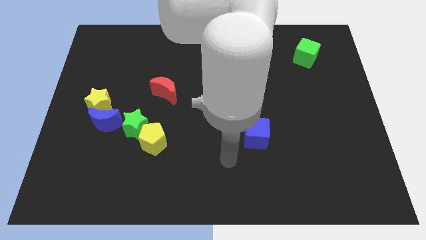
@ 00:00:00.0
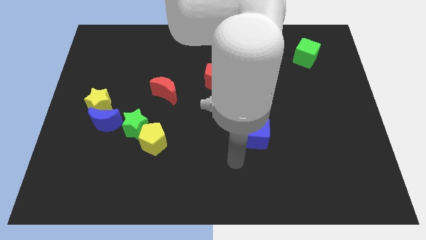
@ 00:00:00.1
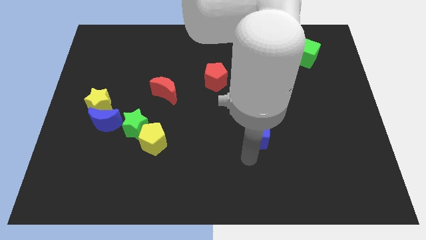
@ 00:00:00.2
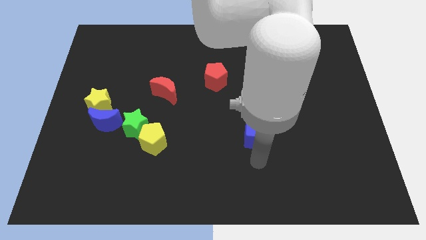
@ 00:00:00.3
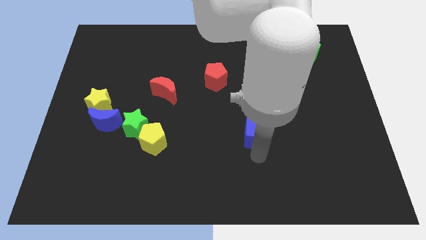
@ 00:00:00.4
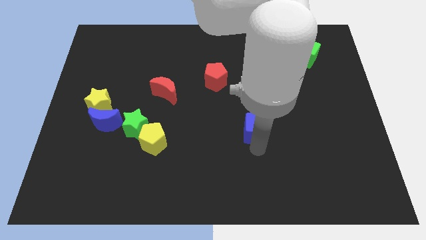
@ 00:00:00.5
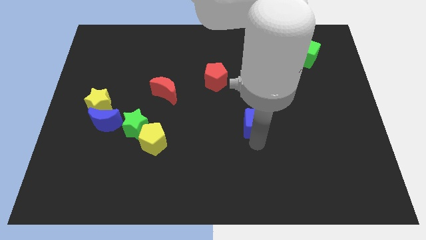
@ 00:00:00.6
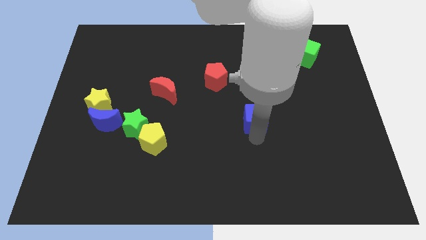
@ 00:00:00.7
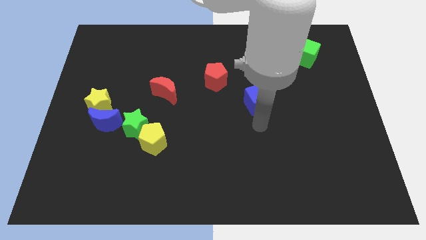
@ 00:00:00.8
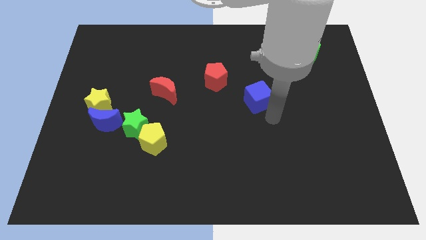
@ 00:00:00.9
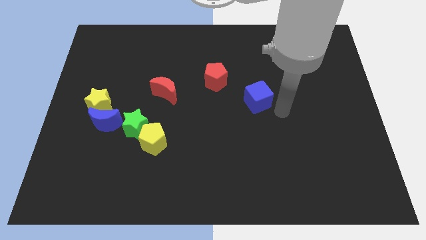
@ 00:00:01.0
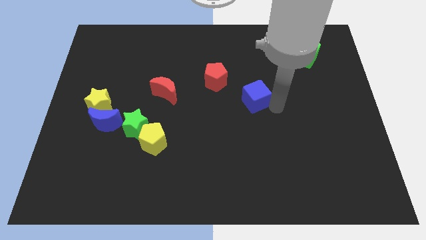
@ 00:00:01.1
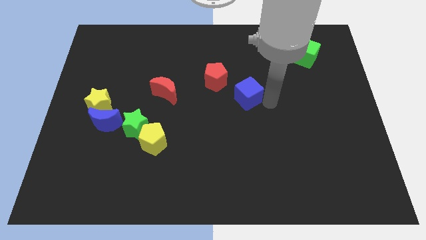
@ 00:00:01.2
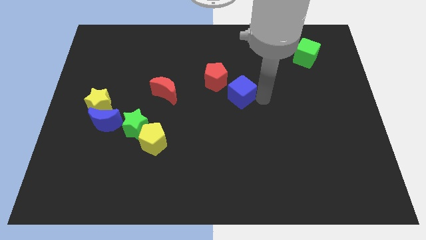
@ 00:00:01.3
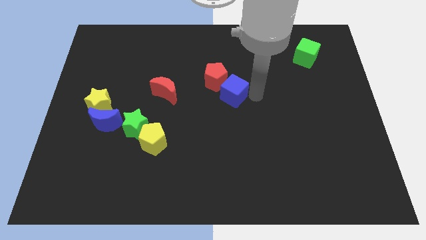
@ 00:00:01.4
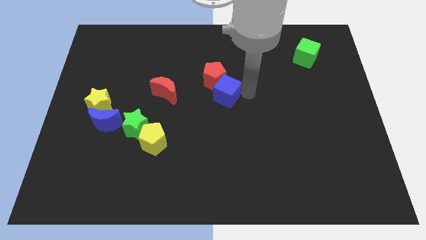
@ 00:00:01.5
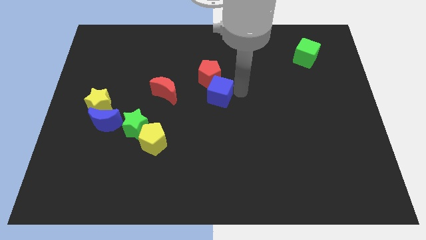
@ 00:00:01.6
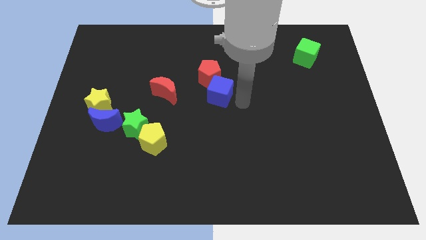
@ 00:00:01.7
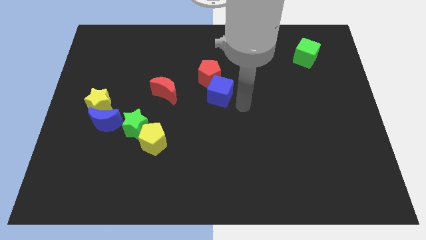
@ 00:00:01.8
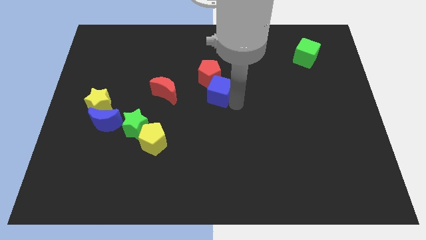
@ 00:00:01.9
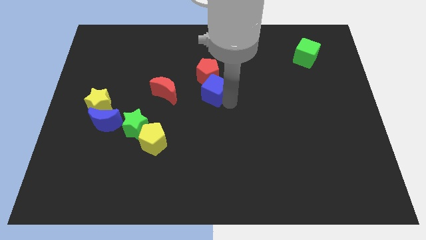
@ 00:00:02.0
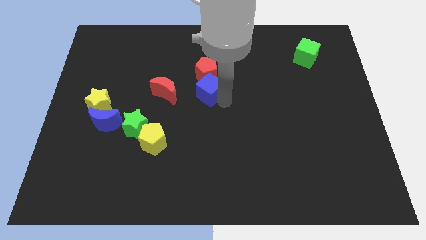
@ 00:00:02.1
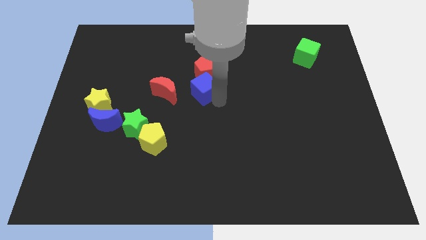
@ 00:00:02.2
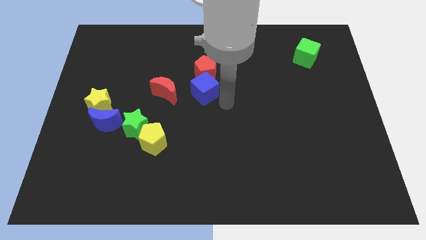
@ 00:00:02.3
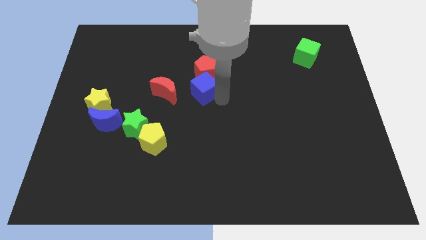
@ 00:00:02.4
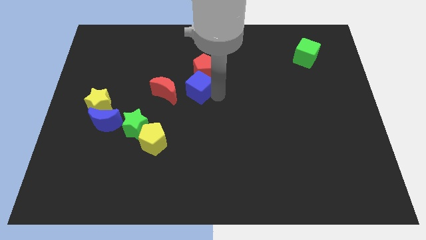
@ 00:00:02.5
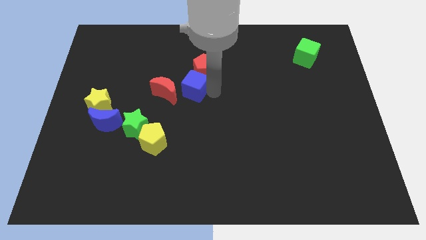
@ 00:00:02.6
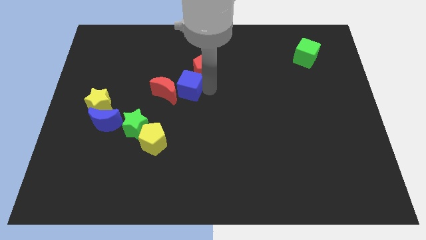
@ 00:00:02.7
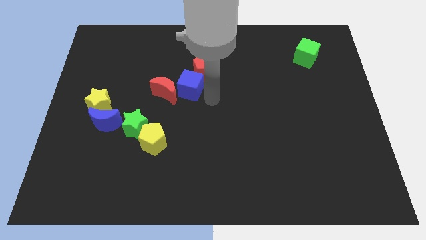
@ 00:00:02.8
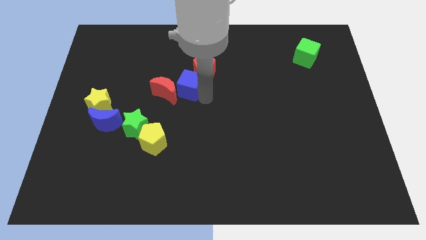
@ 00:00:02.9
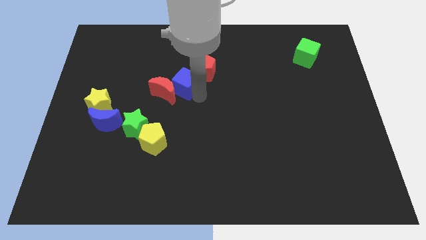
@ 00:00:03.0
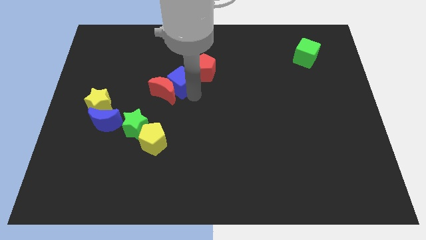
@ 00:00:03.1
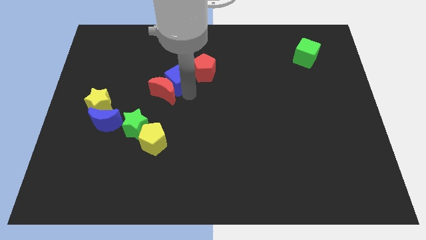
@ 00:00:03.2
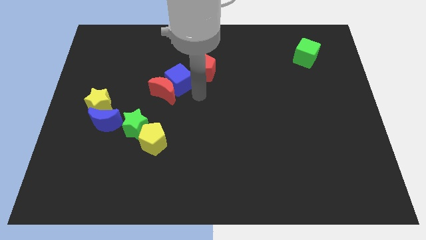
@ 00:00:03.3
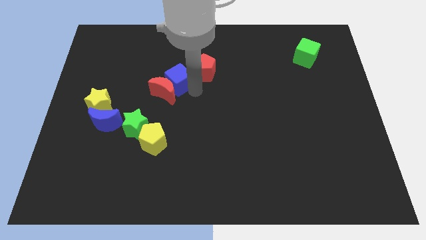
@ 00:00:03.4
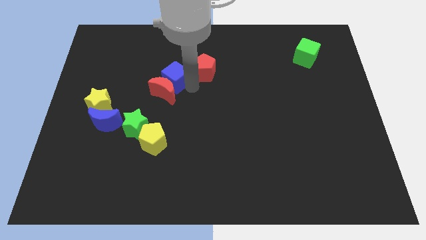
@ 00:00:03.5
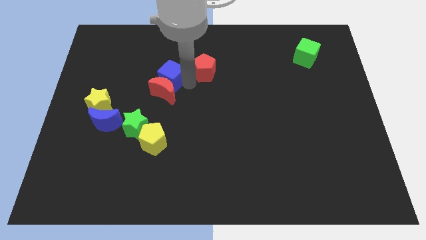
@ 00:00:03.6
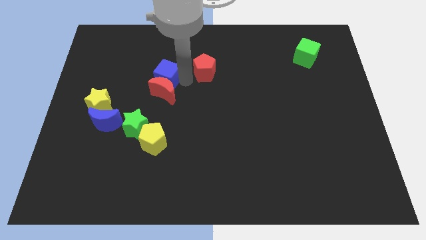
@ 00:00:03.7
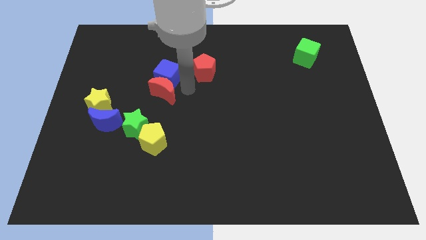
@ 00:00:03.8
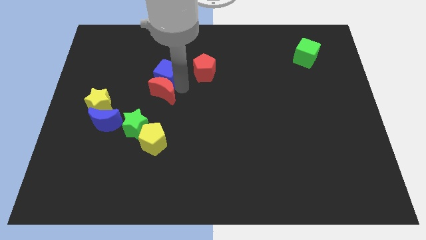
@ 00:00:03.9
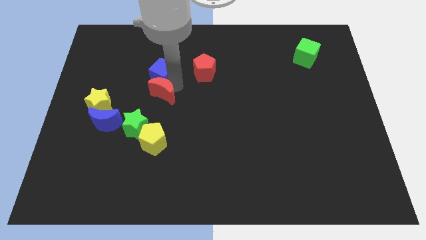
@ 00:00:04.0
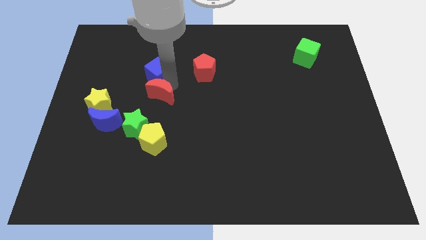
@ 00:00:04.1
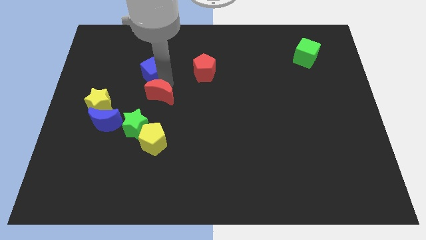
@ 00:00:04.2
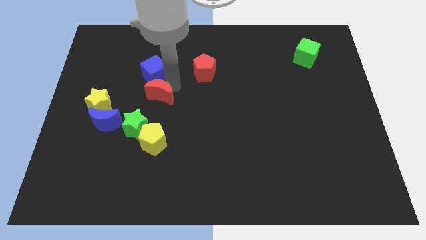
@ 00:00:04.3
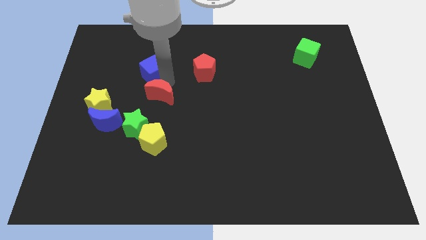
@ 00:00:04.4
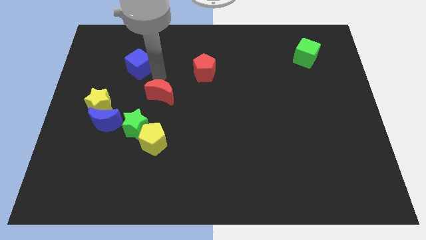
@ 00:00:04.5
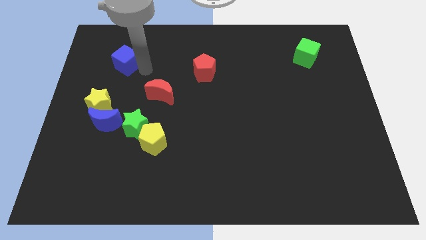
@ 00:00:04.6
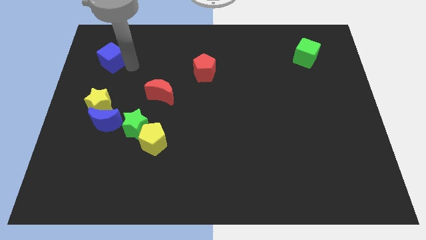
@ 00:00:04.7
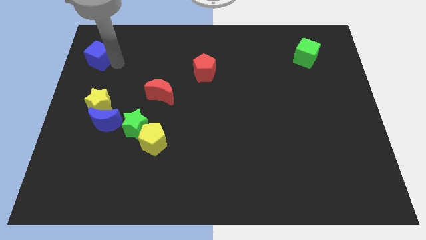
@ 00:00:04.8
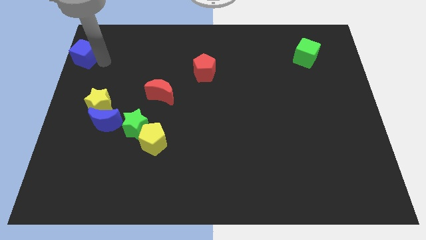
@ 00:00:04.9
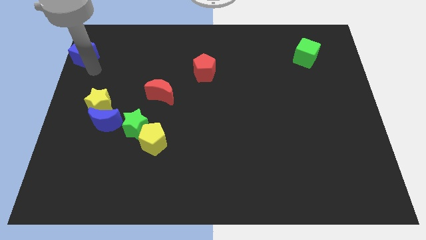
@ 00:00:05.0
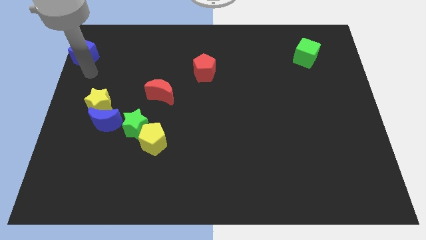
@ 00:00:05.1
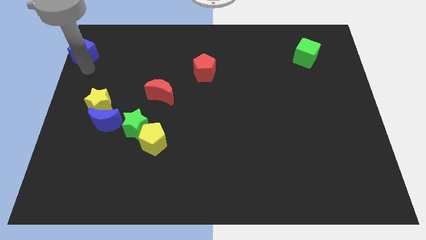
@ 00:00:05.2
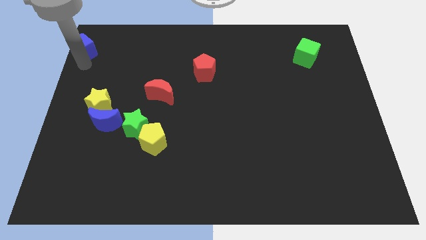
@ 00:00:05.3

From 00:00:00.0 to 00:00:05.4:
slide the blue cube to the top left of the board

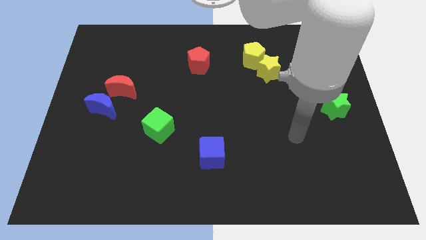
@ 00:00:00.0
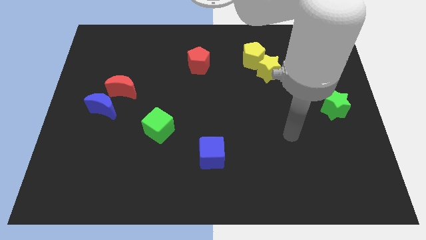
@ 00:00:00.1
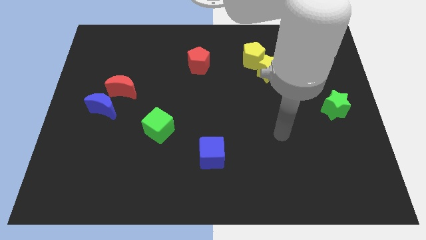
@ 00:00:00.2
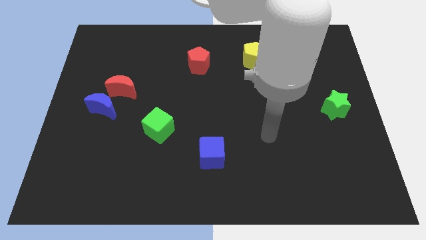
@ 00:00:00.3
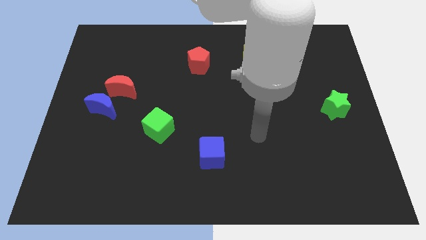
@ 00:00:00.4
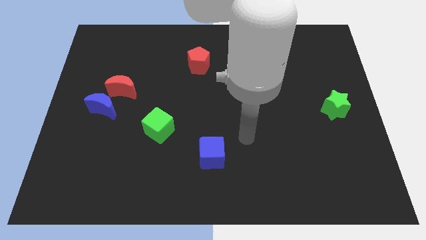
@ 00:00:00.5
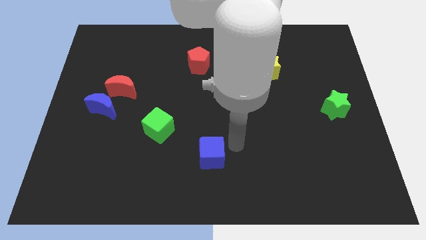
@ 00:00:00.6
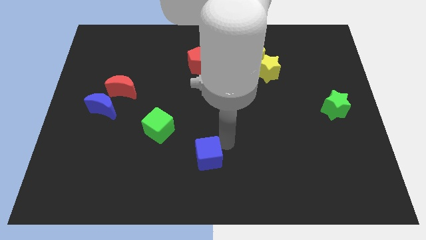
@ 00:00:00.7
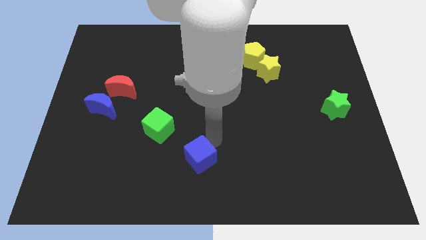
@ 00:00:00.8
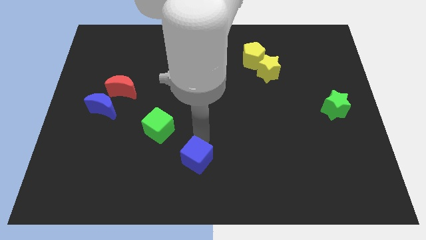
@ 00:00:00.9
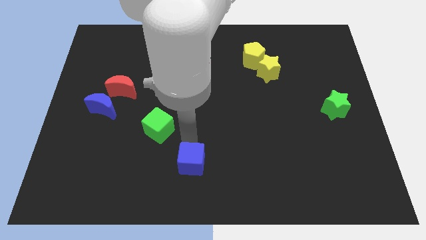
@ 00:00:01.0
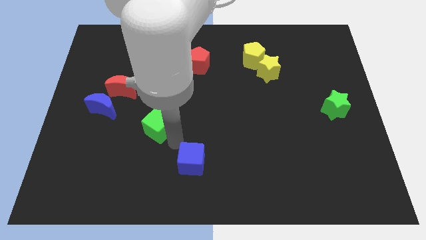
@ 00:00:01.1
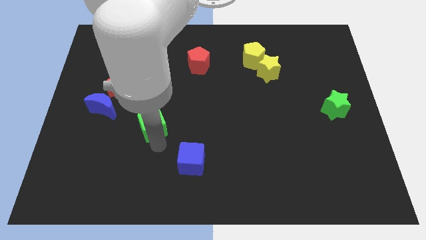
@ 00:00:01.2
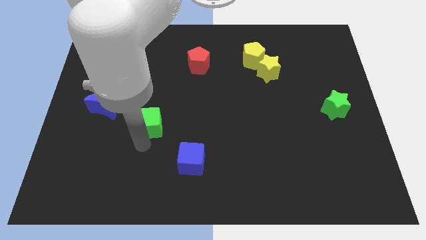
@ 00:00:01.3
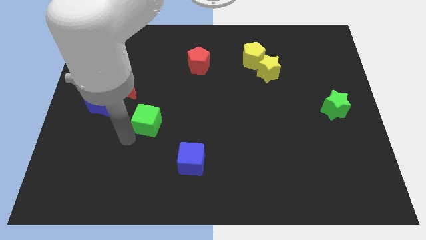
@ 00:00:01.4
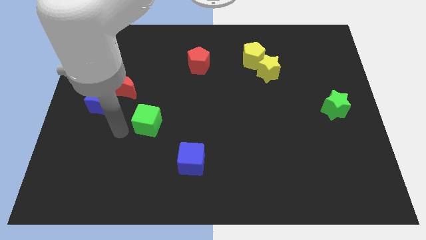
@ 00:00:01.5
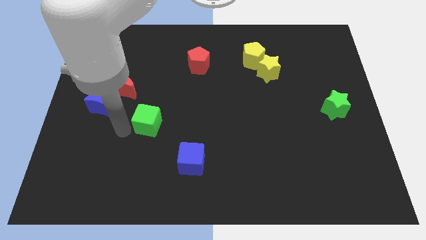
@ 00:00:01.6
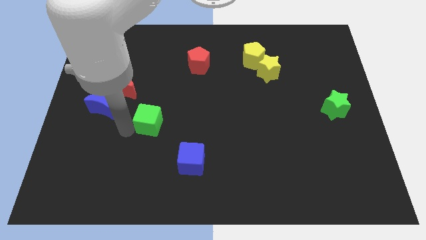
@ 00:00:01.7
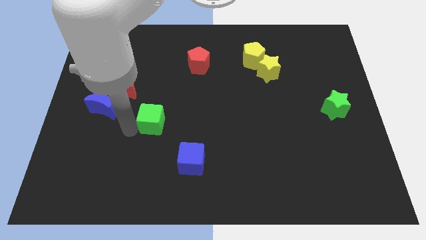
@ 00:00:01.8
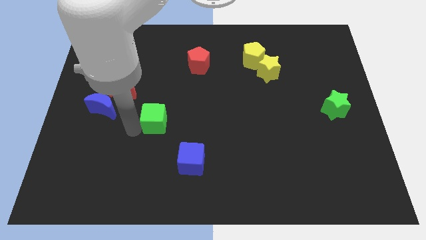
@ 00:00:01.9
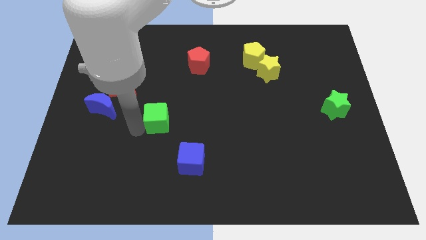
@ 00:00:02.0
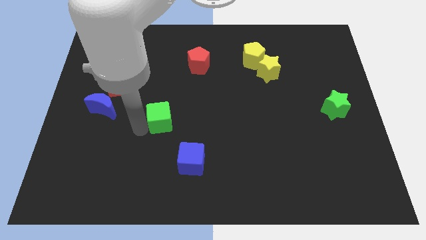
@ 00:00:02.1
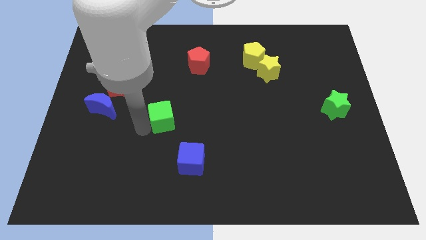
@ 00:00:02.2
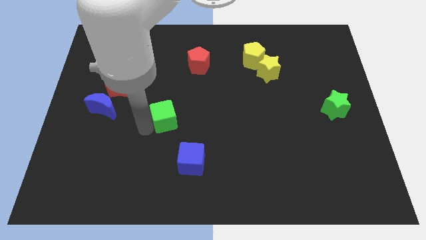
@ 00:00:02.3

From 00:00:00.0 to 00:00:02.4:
slide the green cube to the center
